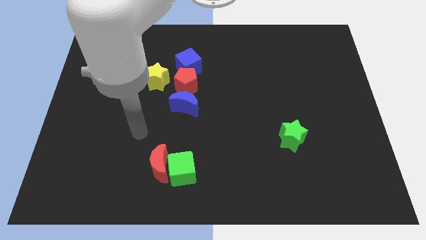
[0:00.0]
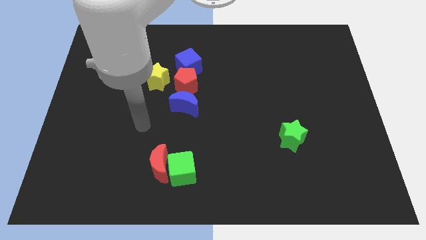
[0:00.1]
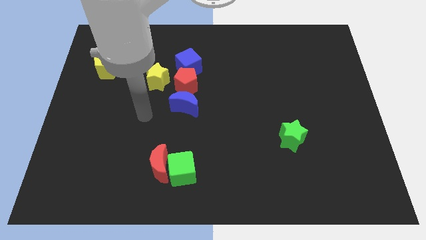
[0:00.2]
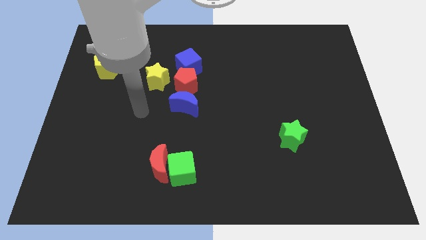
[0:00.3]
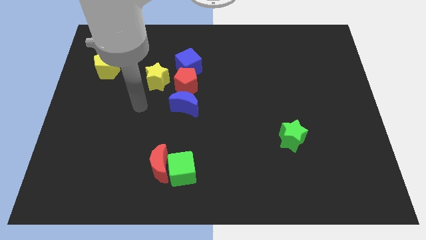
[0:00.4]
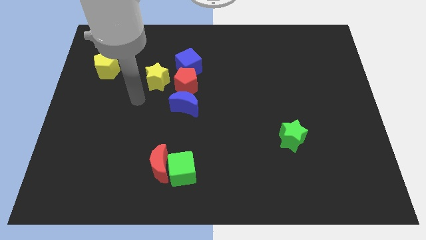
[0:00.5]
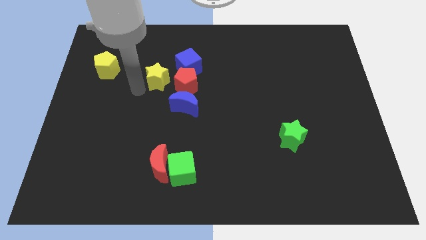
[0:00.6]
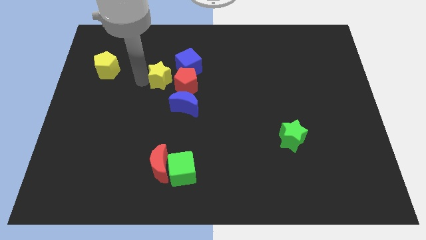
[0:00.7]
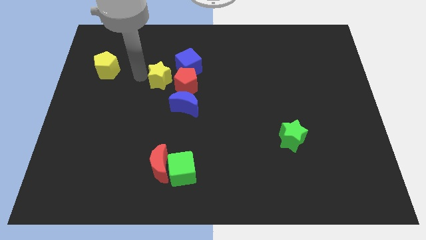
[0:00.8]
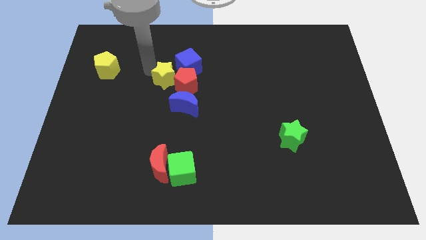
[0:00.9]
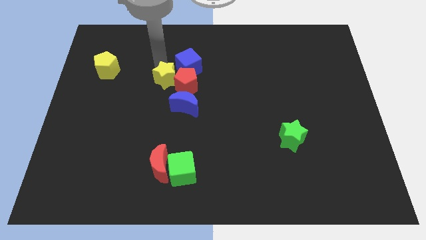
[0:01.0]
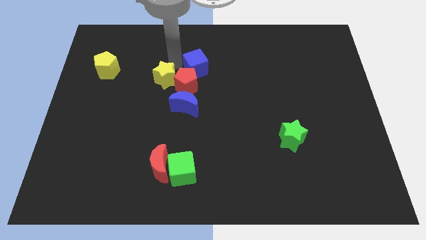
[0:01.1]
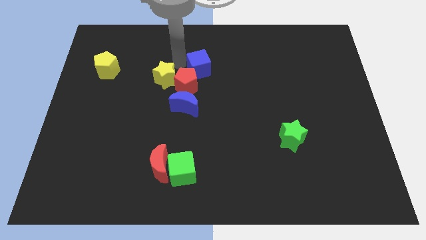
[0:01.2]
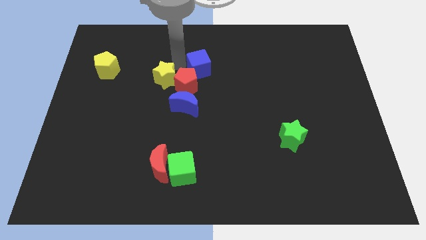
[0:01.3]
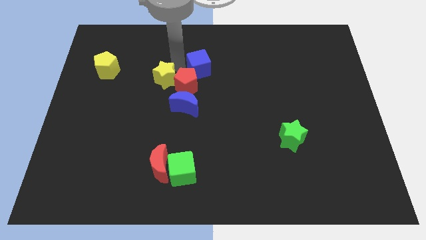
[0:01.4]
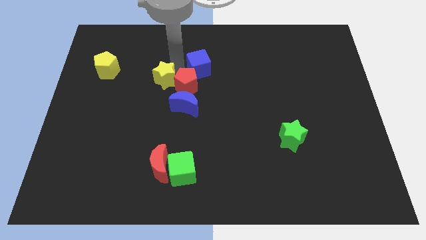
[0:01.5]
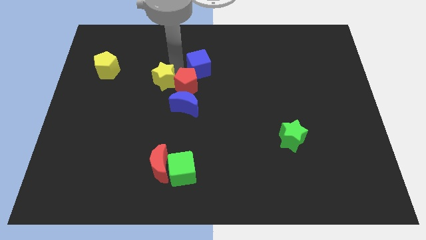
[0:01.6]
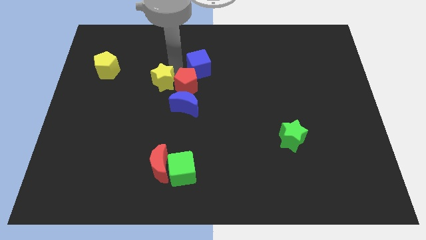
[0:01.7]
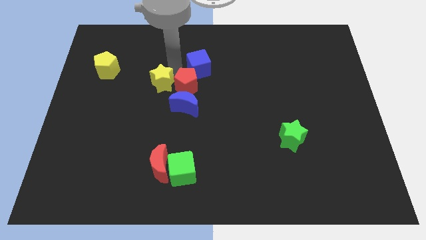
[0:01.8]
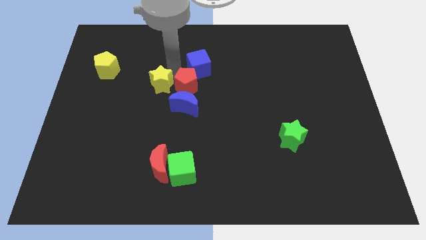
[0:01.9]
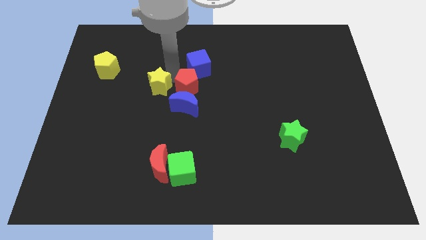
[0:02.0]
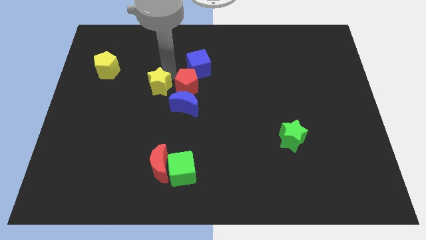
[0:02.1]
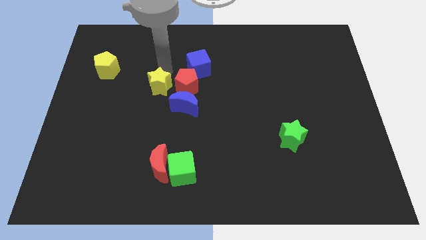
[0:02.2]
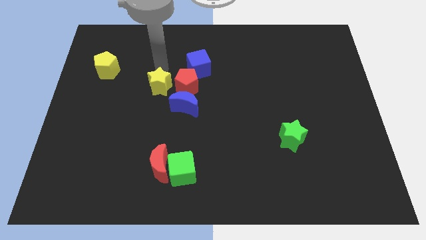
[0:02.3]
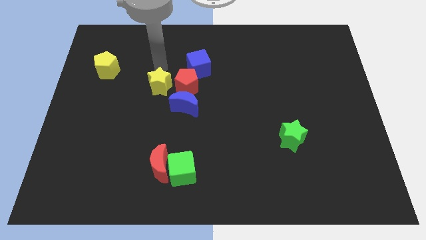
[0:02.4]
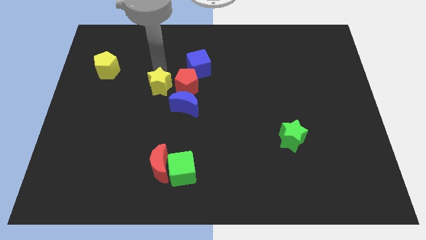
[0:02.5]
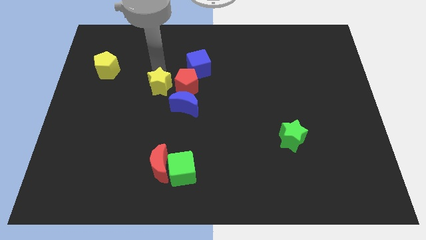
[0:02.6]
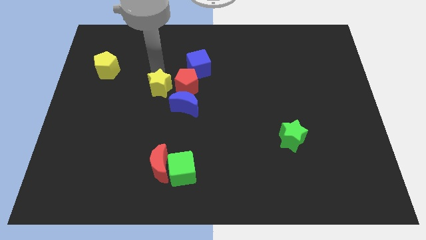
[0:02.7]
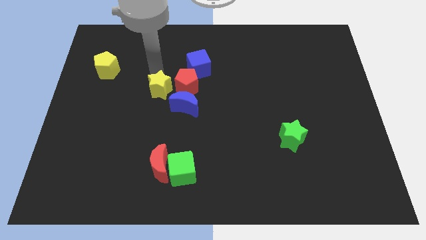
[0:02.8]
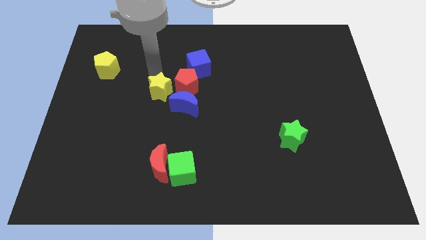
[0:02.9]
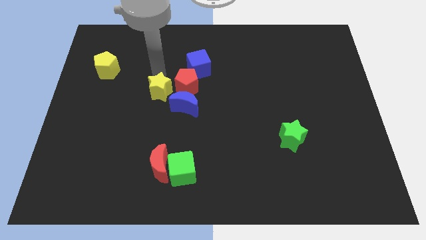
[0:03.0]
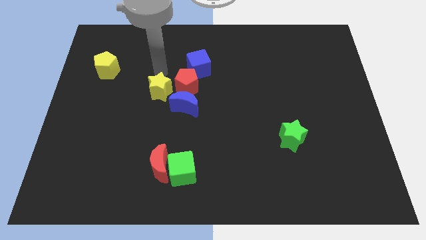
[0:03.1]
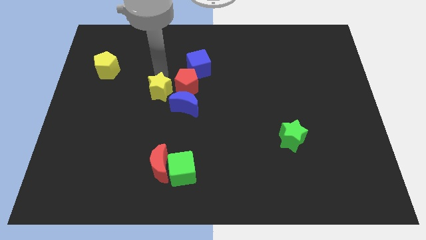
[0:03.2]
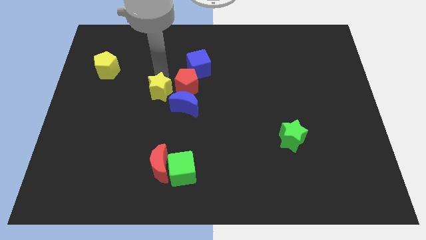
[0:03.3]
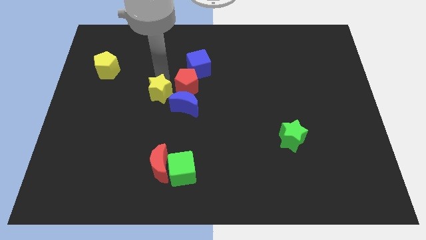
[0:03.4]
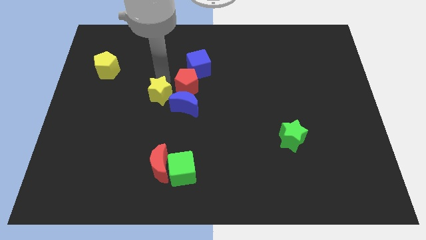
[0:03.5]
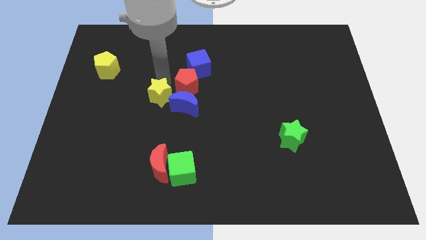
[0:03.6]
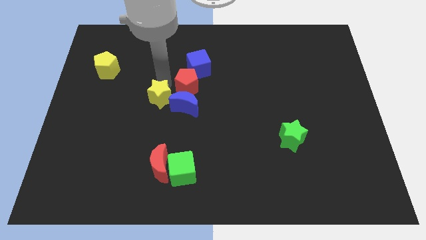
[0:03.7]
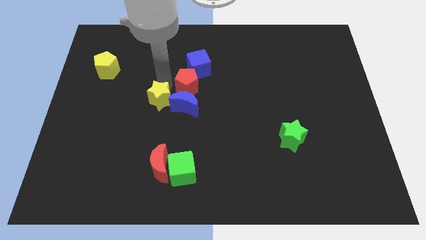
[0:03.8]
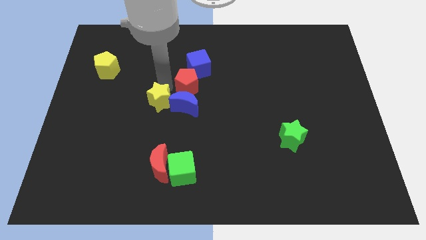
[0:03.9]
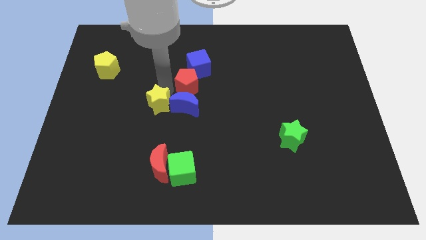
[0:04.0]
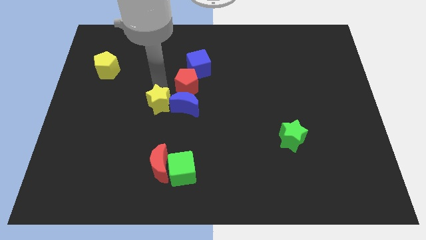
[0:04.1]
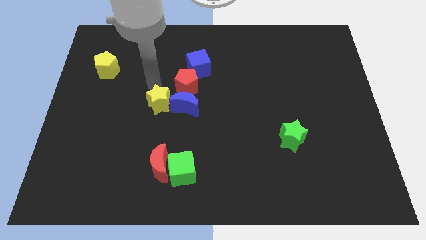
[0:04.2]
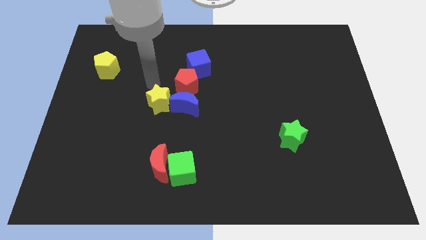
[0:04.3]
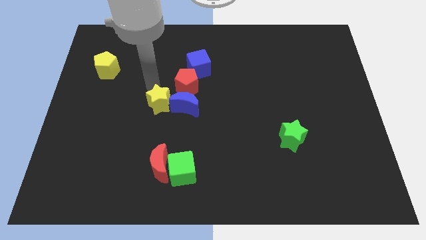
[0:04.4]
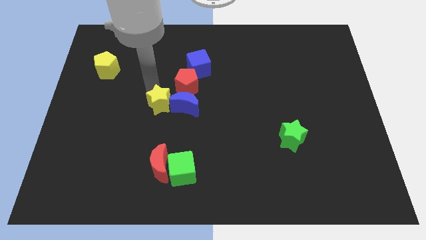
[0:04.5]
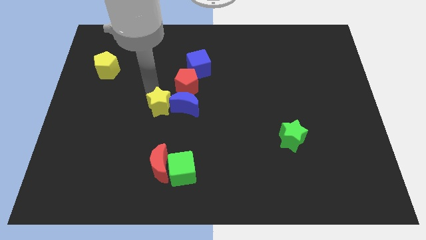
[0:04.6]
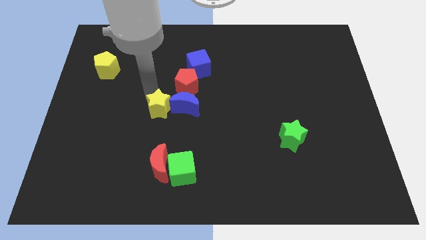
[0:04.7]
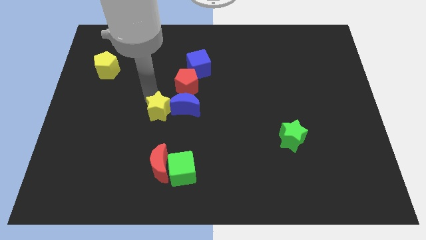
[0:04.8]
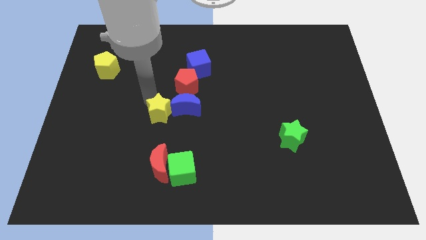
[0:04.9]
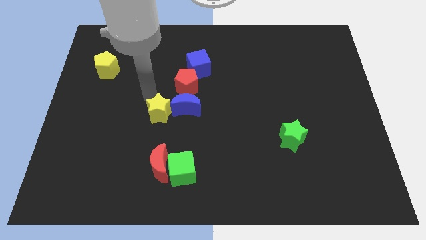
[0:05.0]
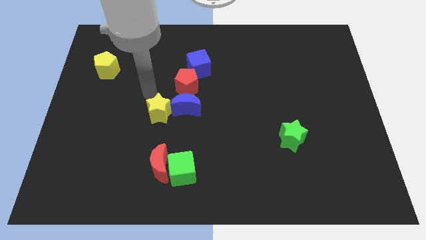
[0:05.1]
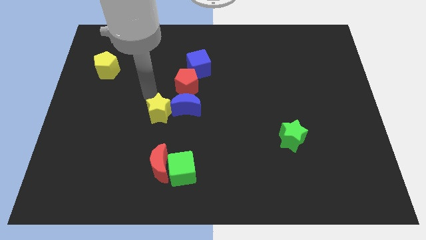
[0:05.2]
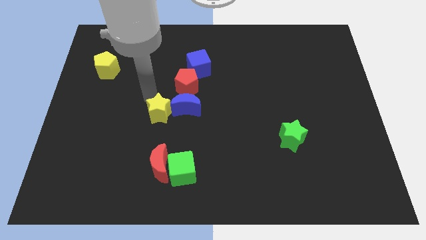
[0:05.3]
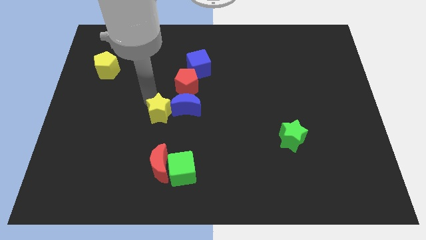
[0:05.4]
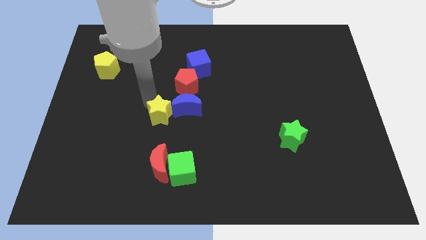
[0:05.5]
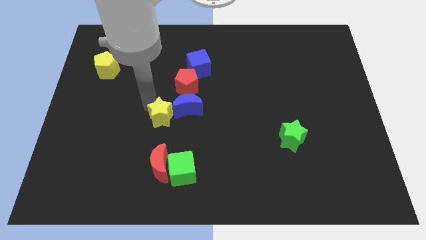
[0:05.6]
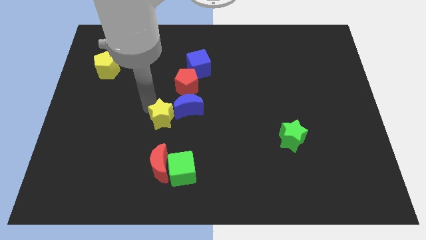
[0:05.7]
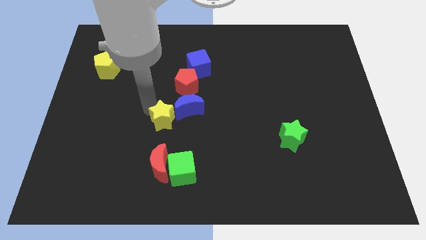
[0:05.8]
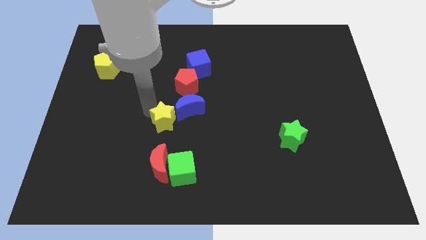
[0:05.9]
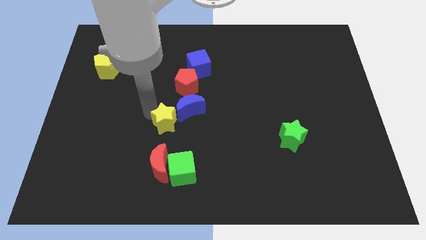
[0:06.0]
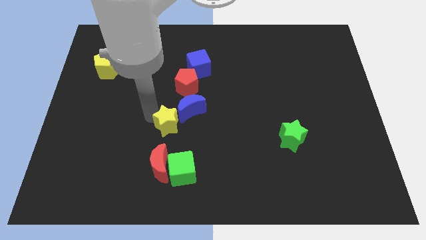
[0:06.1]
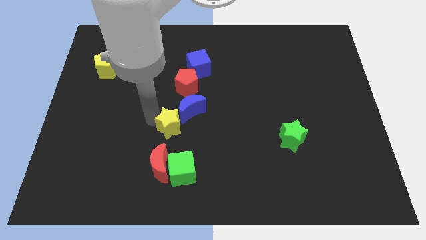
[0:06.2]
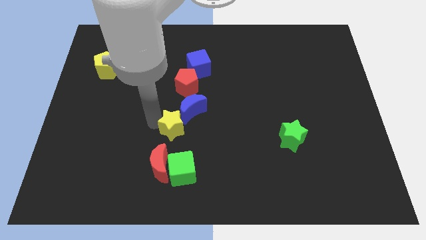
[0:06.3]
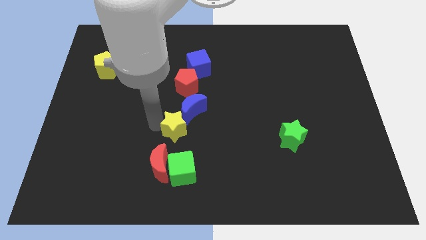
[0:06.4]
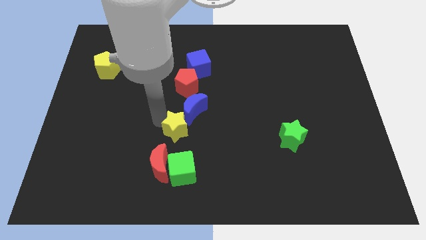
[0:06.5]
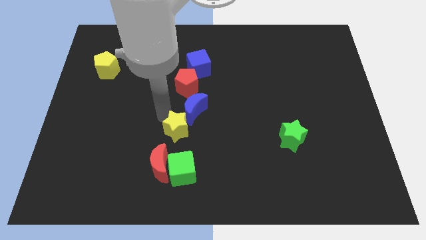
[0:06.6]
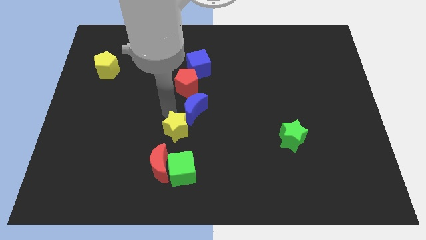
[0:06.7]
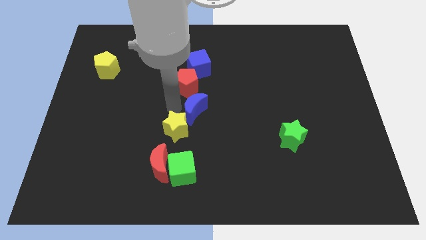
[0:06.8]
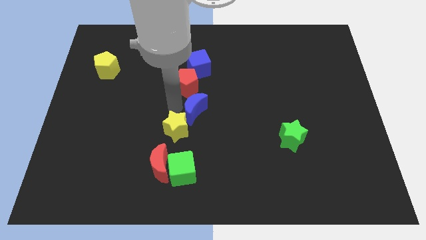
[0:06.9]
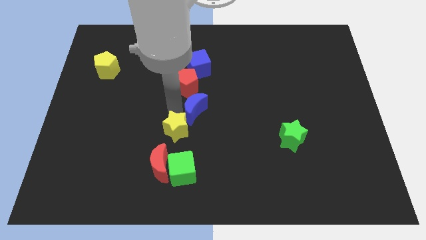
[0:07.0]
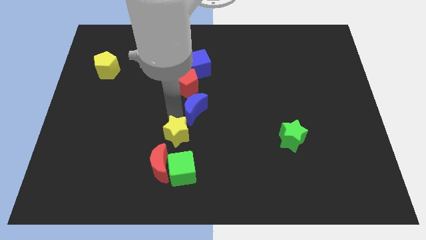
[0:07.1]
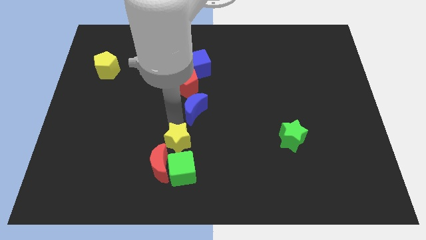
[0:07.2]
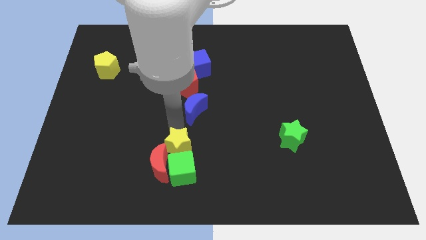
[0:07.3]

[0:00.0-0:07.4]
put the yellow star close to the green cube

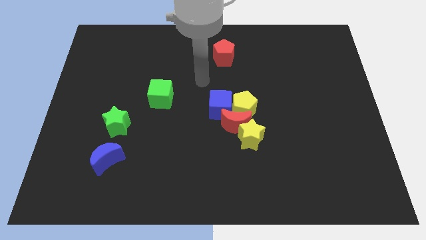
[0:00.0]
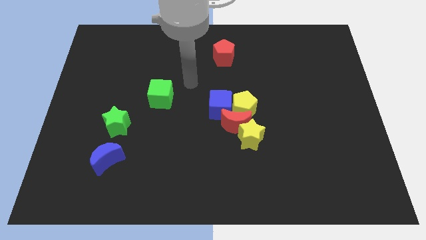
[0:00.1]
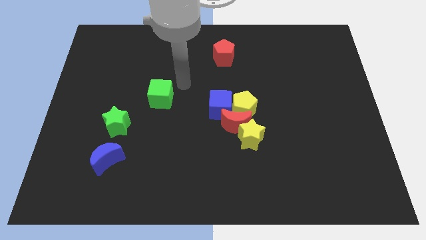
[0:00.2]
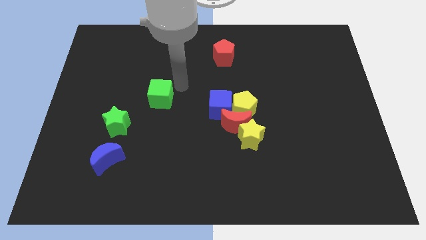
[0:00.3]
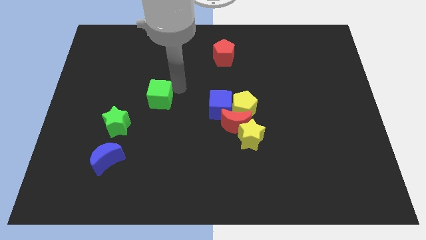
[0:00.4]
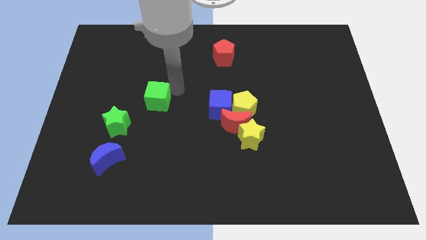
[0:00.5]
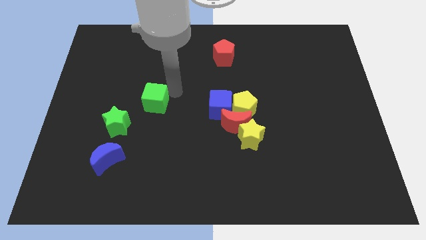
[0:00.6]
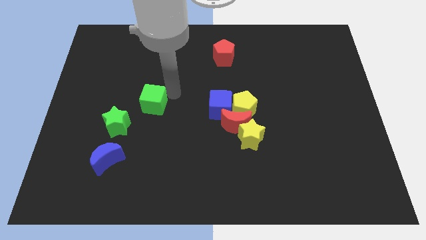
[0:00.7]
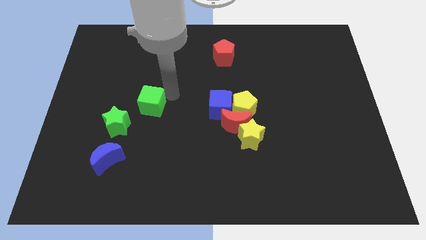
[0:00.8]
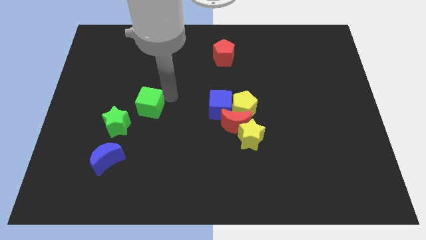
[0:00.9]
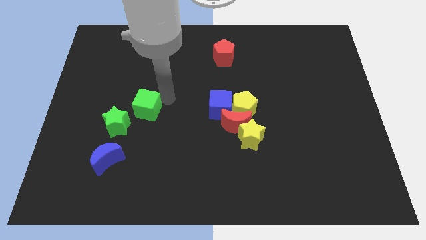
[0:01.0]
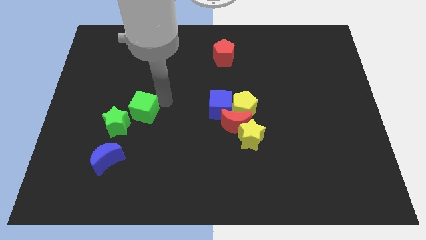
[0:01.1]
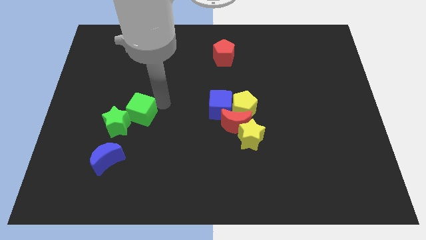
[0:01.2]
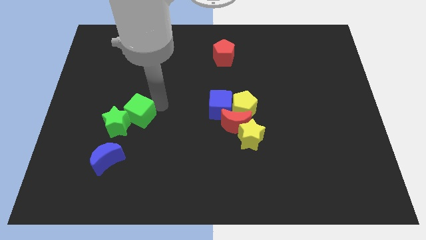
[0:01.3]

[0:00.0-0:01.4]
slide the green cube close to the green star
